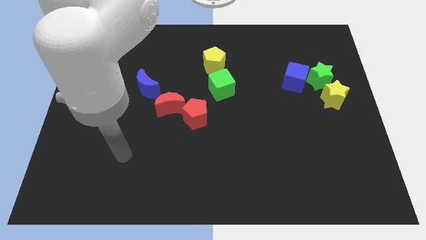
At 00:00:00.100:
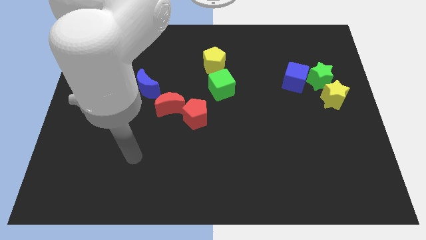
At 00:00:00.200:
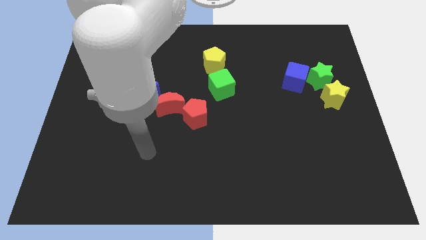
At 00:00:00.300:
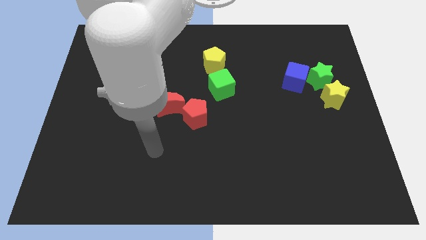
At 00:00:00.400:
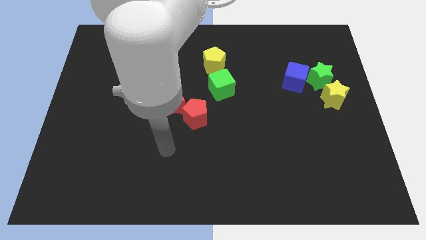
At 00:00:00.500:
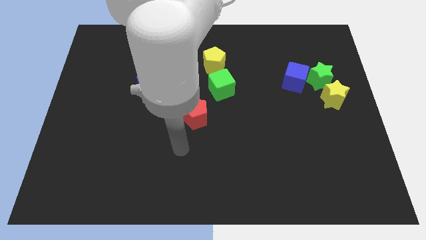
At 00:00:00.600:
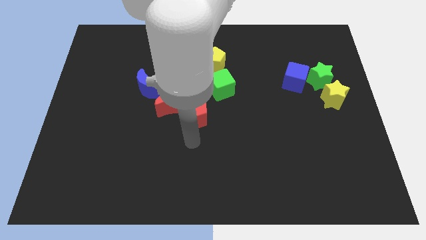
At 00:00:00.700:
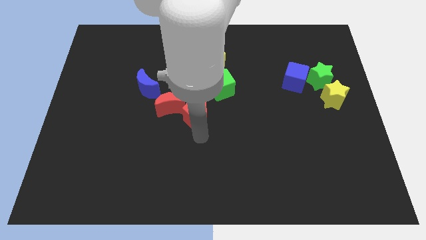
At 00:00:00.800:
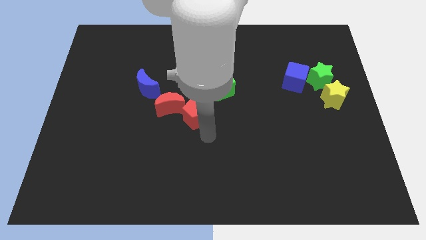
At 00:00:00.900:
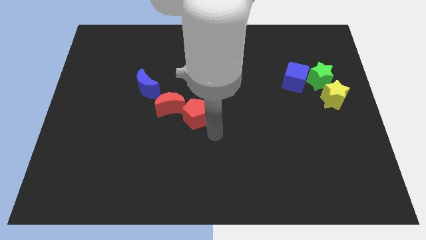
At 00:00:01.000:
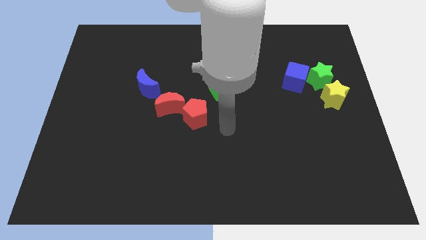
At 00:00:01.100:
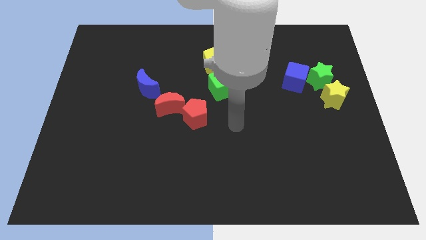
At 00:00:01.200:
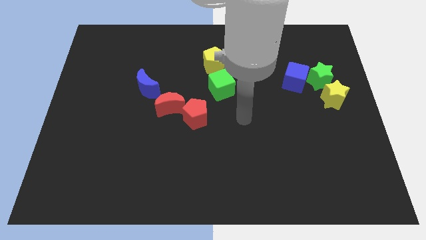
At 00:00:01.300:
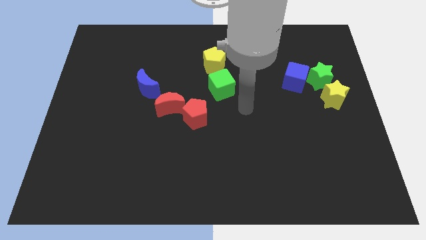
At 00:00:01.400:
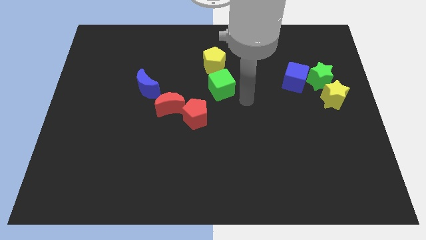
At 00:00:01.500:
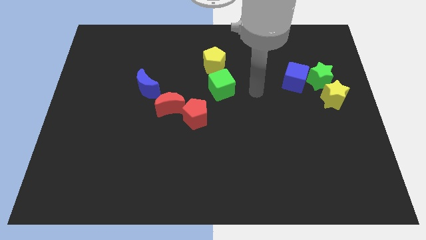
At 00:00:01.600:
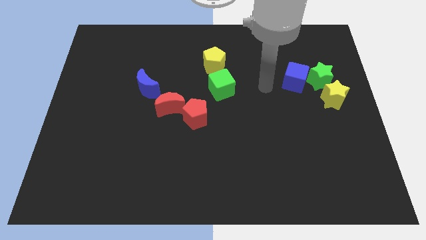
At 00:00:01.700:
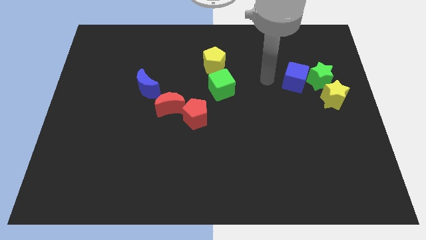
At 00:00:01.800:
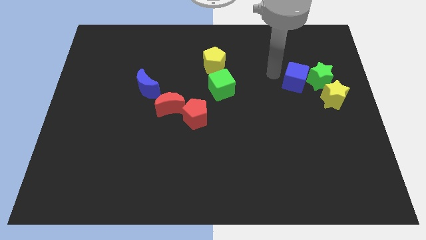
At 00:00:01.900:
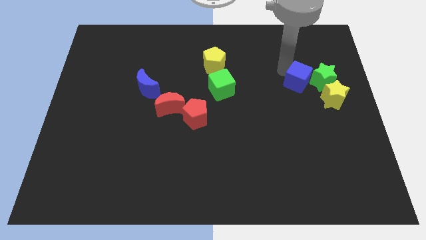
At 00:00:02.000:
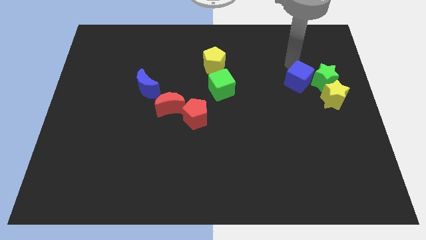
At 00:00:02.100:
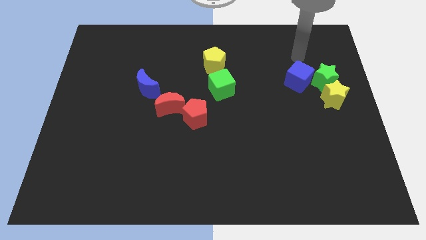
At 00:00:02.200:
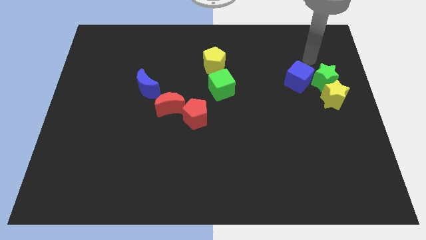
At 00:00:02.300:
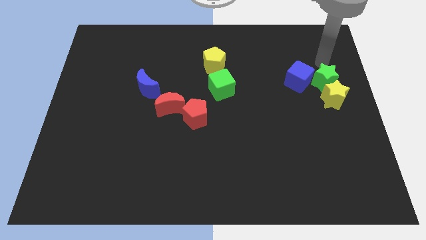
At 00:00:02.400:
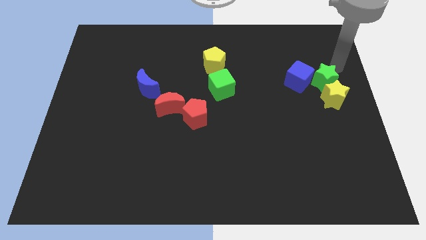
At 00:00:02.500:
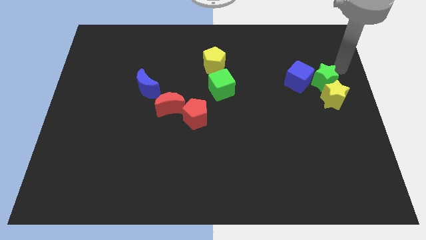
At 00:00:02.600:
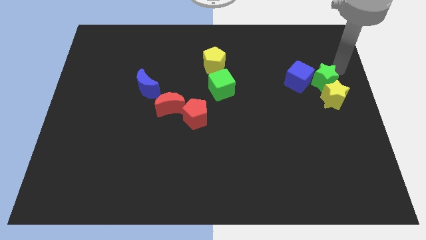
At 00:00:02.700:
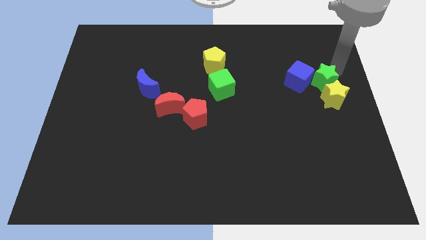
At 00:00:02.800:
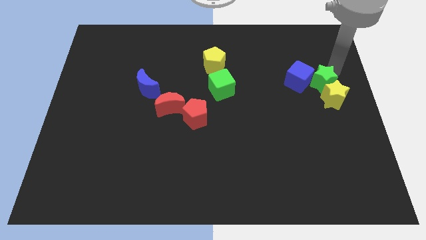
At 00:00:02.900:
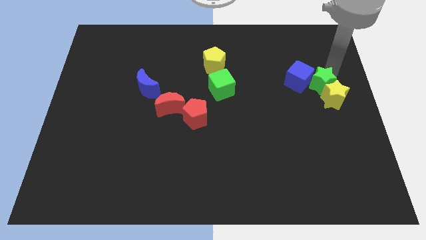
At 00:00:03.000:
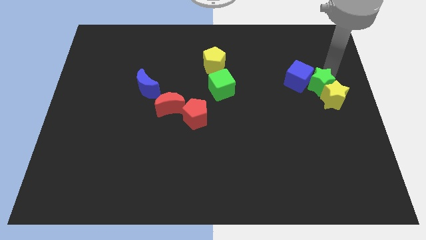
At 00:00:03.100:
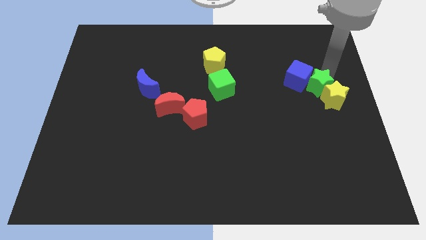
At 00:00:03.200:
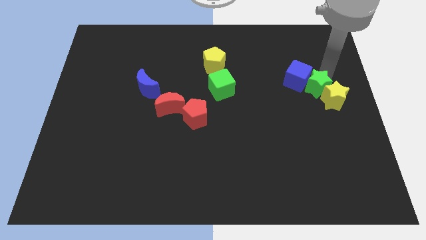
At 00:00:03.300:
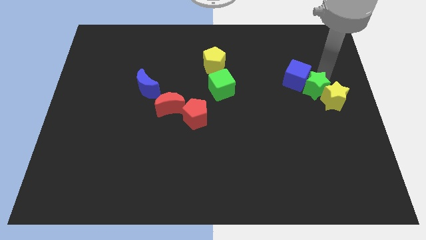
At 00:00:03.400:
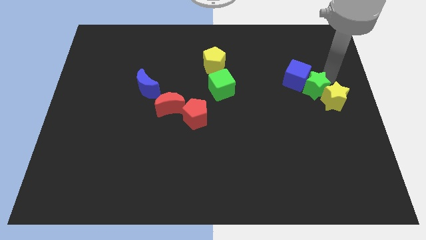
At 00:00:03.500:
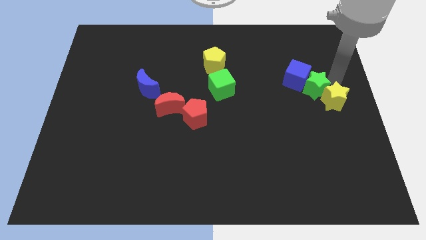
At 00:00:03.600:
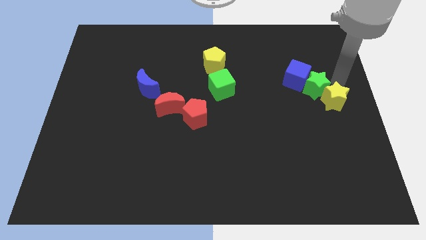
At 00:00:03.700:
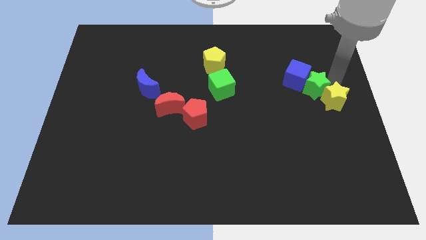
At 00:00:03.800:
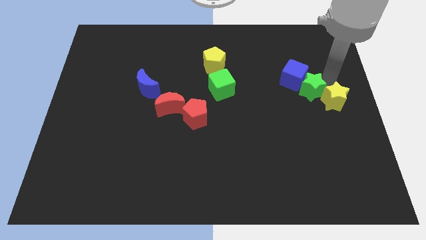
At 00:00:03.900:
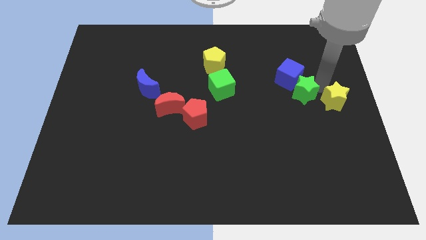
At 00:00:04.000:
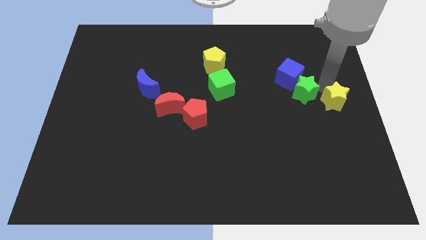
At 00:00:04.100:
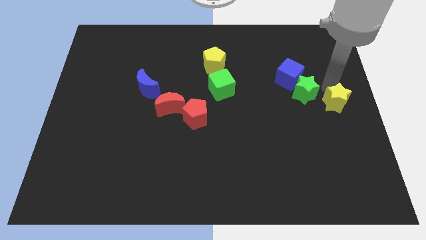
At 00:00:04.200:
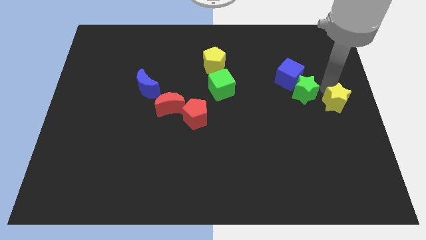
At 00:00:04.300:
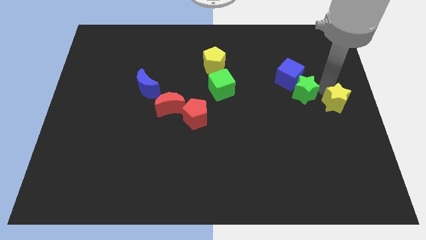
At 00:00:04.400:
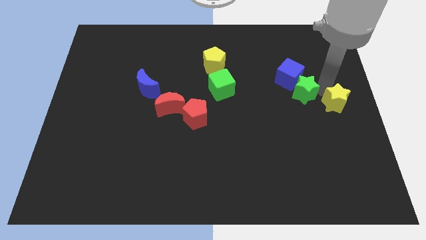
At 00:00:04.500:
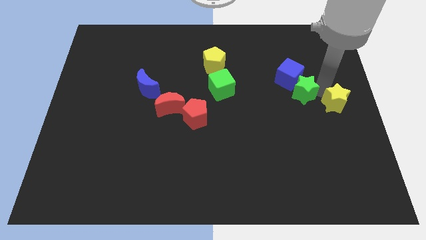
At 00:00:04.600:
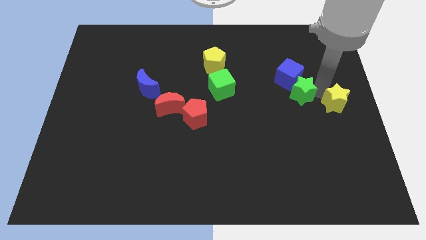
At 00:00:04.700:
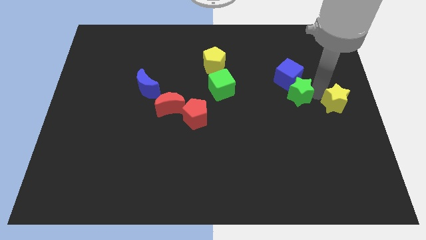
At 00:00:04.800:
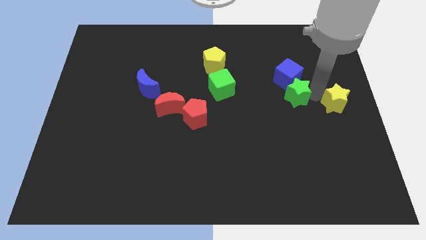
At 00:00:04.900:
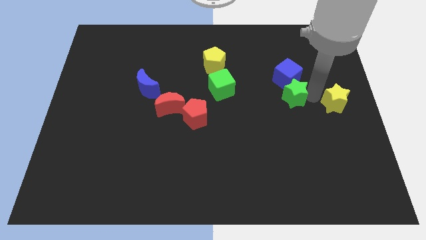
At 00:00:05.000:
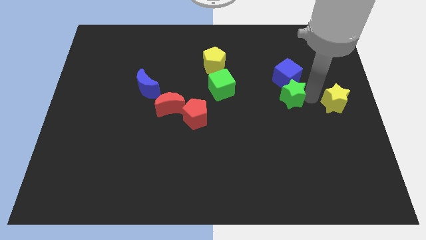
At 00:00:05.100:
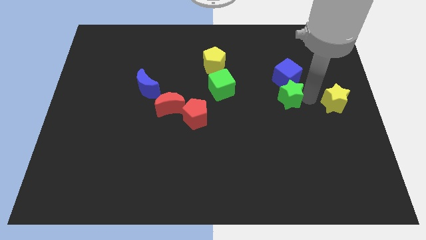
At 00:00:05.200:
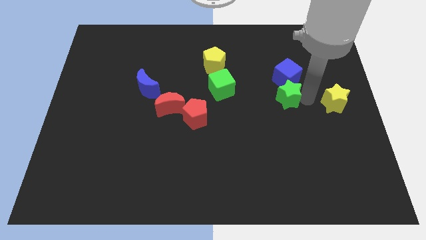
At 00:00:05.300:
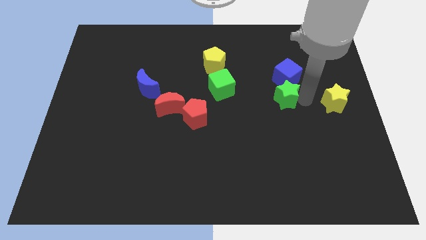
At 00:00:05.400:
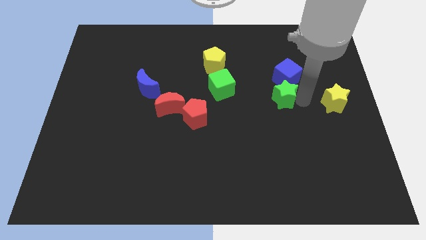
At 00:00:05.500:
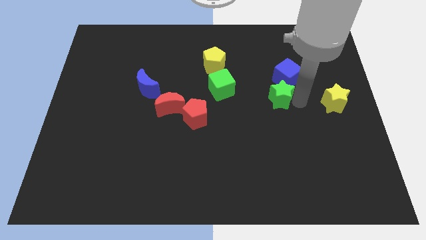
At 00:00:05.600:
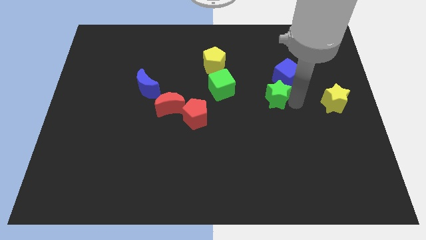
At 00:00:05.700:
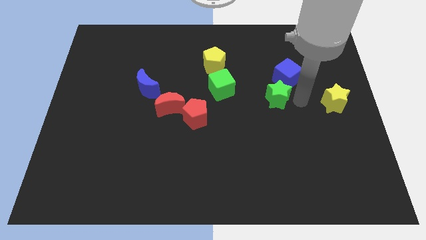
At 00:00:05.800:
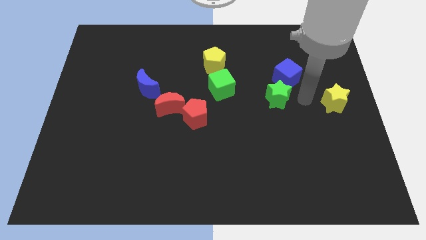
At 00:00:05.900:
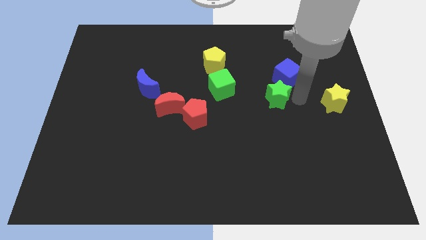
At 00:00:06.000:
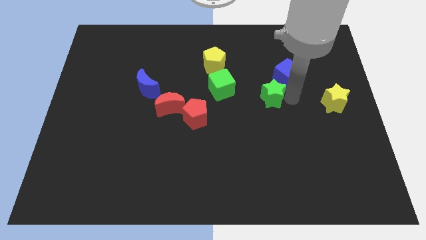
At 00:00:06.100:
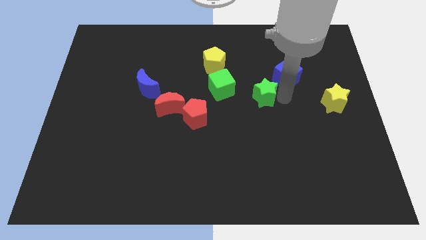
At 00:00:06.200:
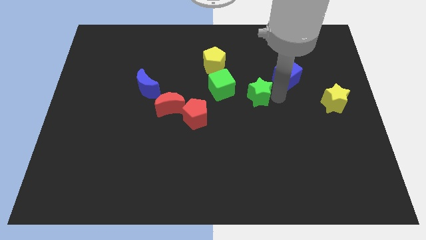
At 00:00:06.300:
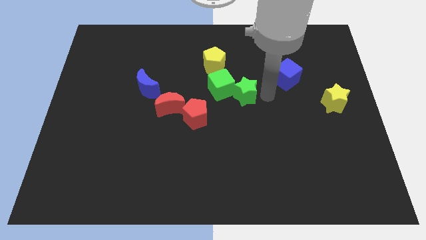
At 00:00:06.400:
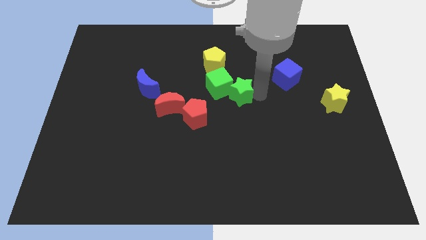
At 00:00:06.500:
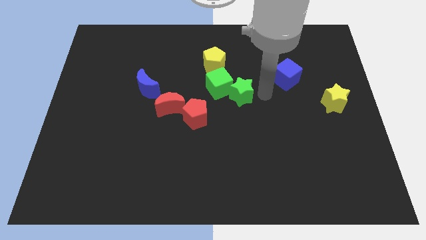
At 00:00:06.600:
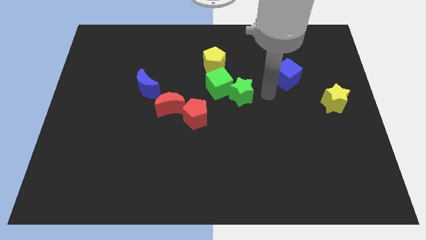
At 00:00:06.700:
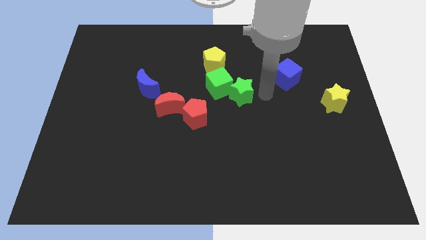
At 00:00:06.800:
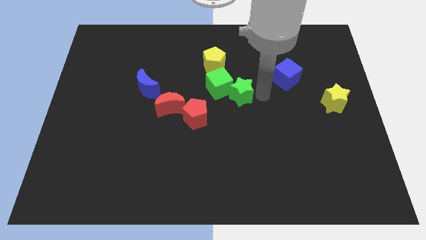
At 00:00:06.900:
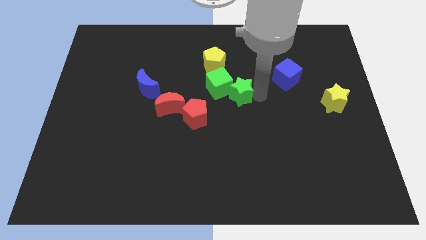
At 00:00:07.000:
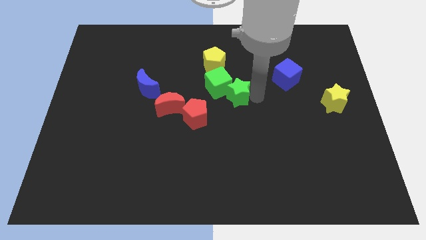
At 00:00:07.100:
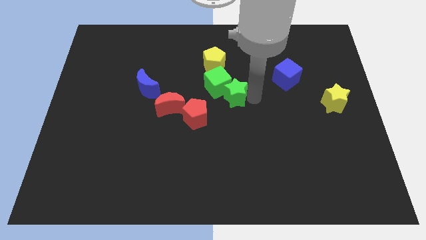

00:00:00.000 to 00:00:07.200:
put the green star to the bottom side of the yellow pentagon

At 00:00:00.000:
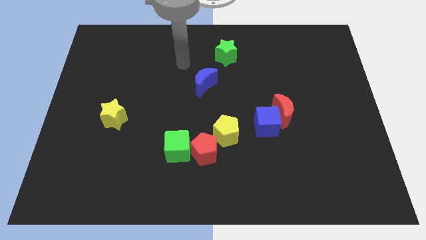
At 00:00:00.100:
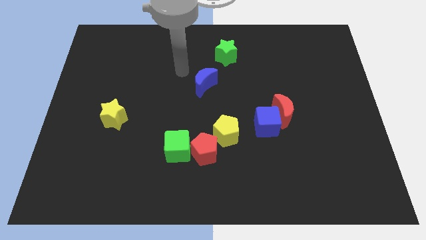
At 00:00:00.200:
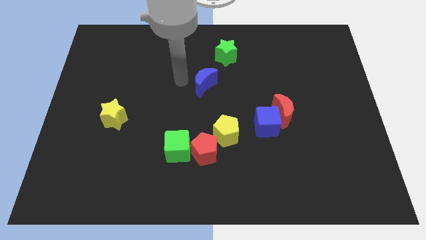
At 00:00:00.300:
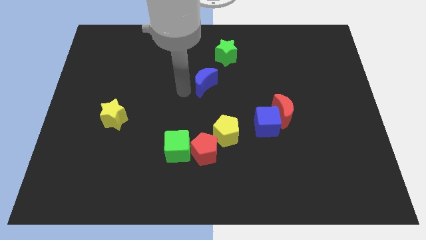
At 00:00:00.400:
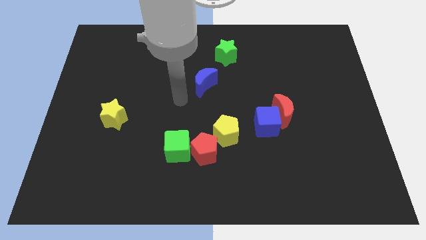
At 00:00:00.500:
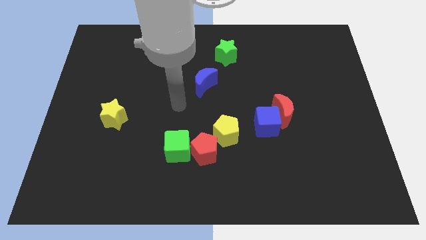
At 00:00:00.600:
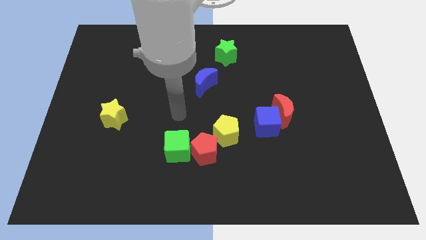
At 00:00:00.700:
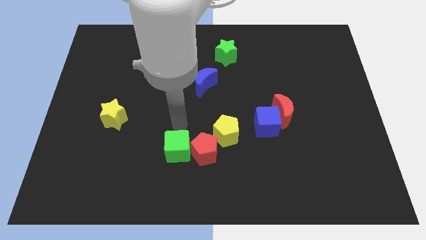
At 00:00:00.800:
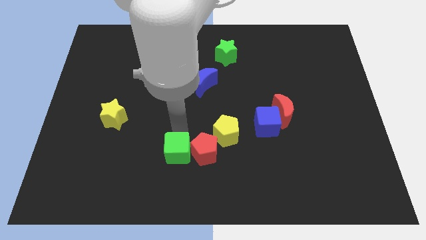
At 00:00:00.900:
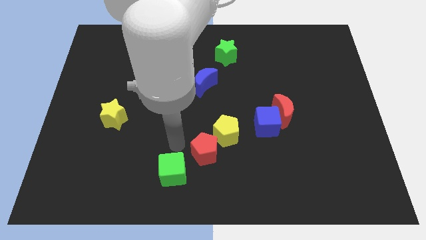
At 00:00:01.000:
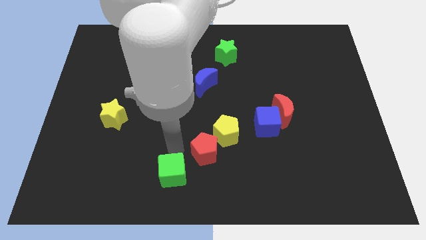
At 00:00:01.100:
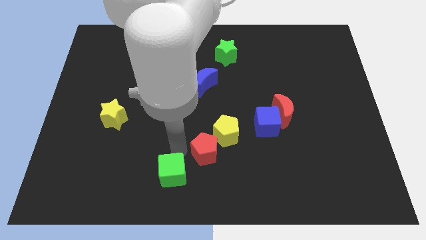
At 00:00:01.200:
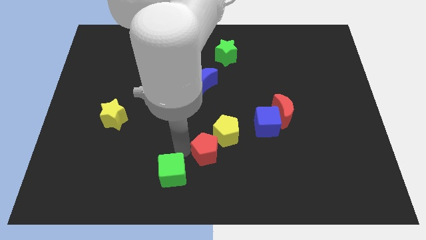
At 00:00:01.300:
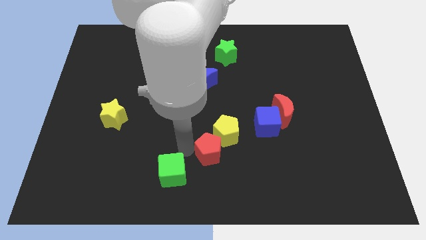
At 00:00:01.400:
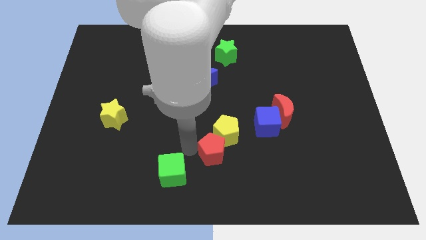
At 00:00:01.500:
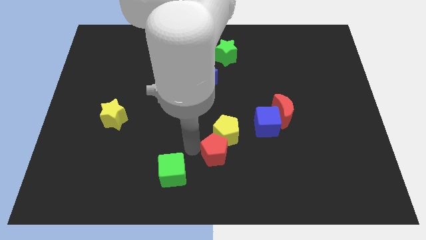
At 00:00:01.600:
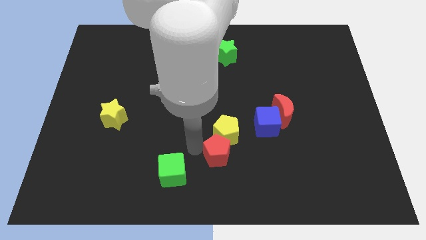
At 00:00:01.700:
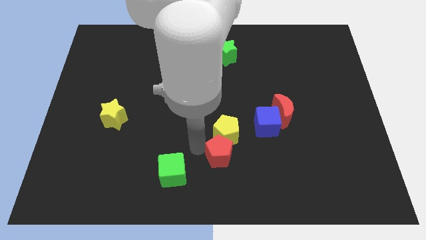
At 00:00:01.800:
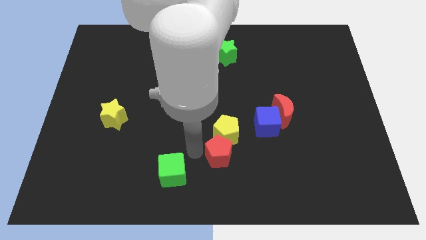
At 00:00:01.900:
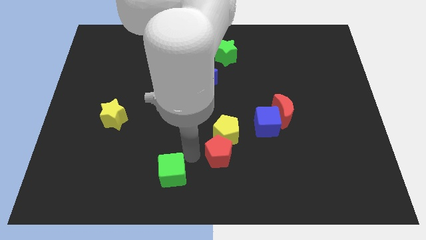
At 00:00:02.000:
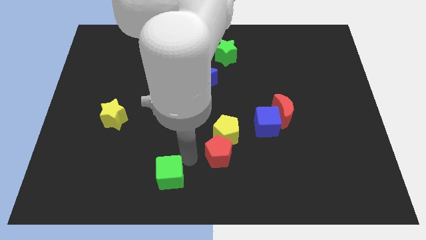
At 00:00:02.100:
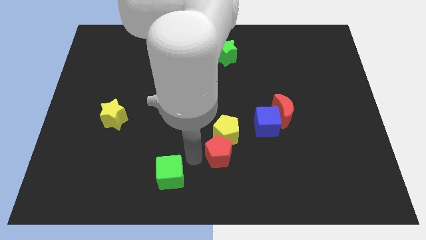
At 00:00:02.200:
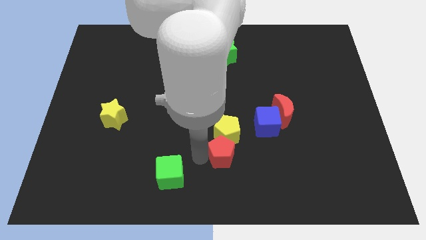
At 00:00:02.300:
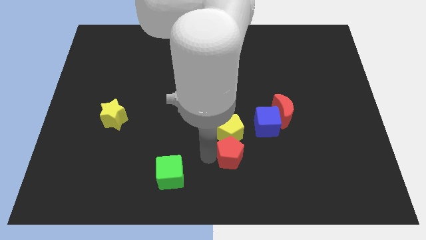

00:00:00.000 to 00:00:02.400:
move the red pentagon diagonally down and to the right of the yellow pentagon
